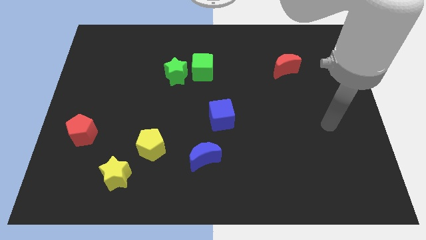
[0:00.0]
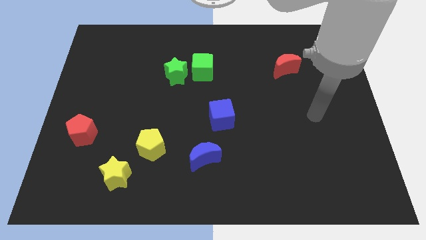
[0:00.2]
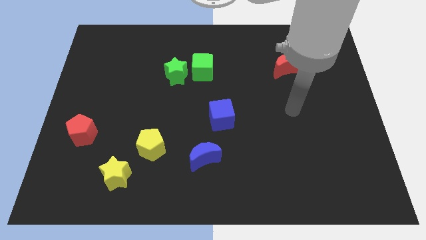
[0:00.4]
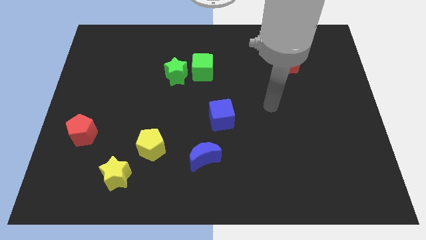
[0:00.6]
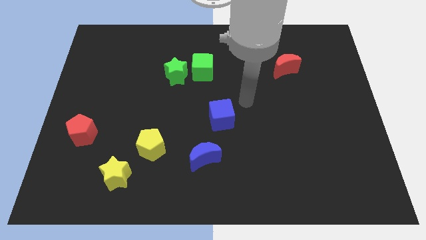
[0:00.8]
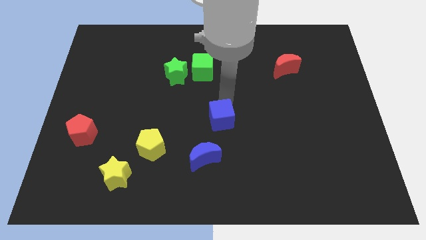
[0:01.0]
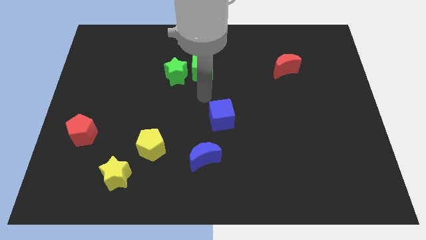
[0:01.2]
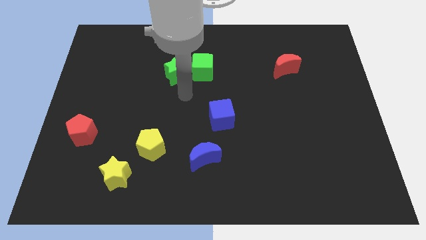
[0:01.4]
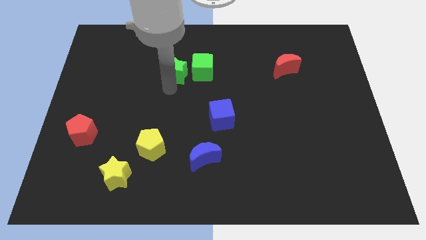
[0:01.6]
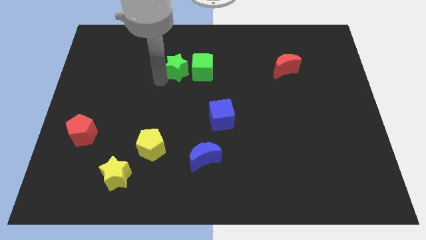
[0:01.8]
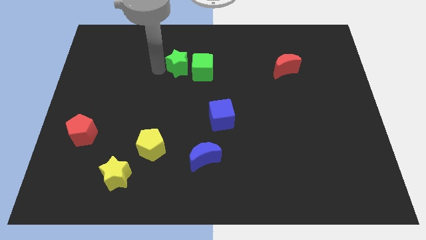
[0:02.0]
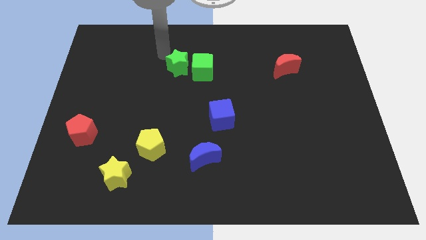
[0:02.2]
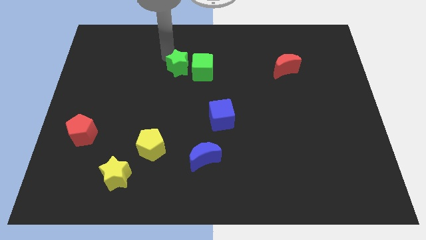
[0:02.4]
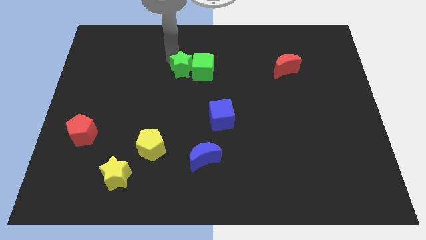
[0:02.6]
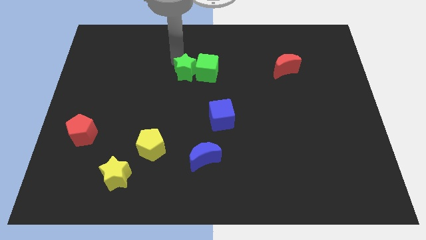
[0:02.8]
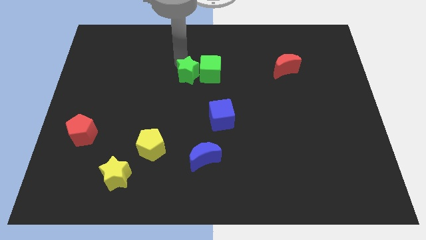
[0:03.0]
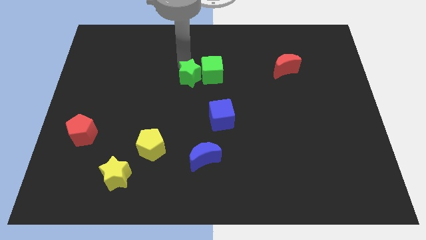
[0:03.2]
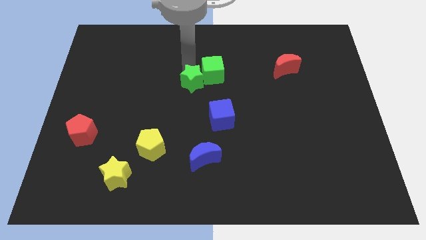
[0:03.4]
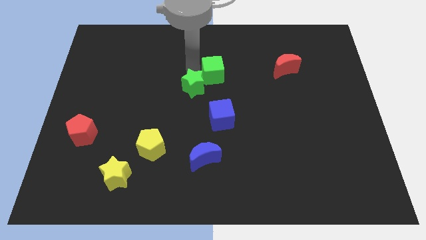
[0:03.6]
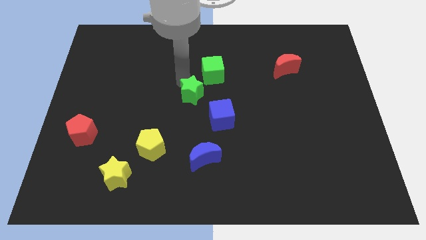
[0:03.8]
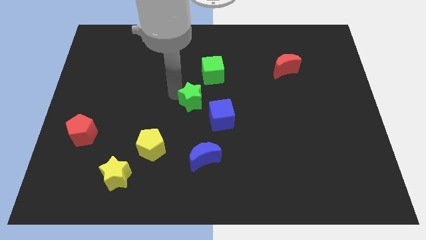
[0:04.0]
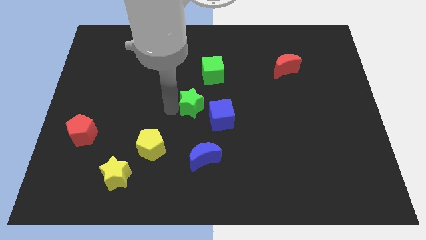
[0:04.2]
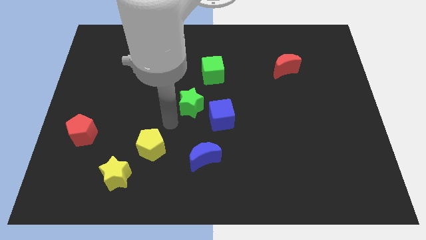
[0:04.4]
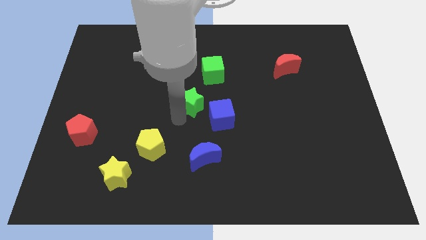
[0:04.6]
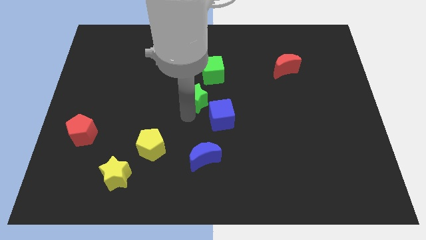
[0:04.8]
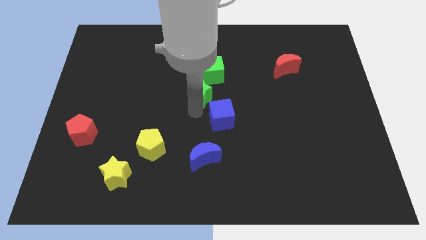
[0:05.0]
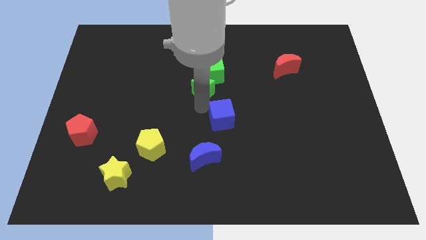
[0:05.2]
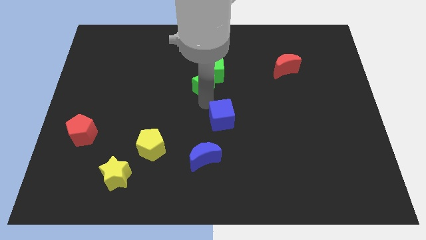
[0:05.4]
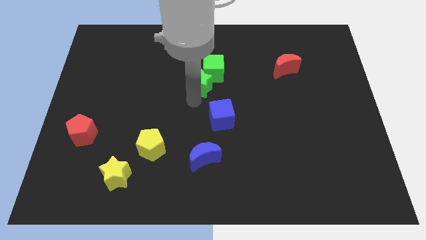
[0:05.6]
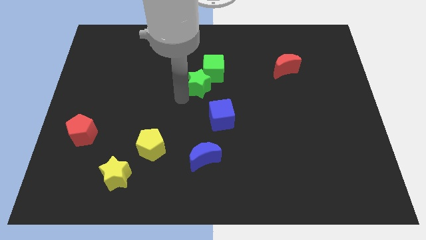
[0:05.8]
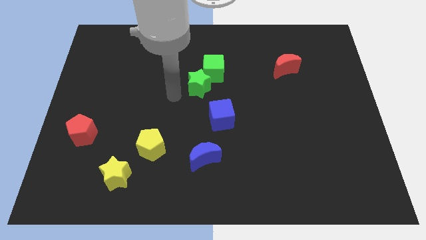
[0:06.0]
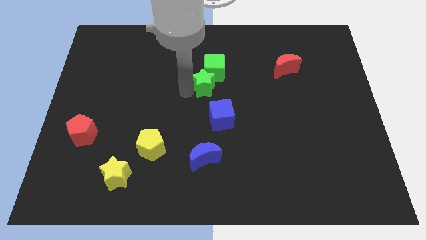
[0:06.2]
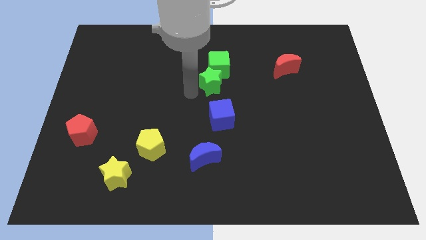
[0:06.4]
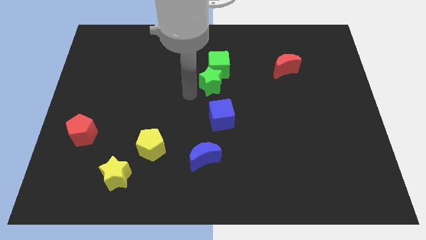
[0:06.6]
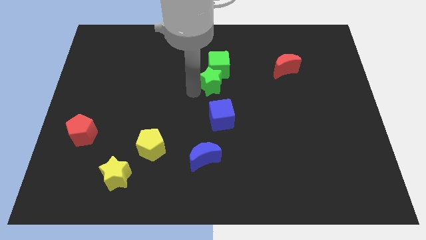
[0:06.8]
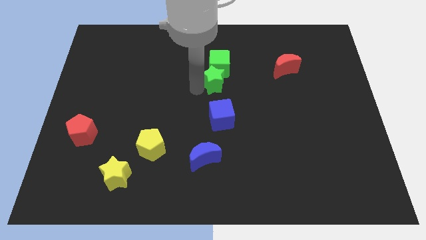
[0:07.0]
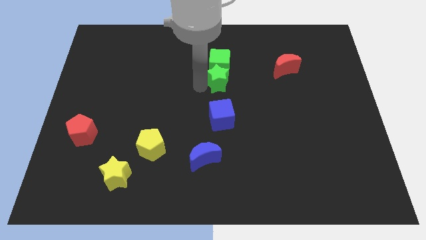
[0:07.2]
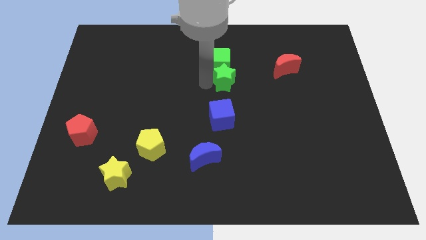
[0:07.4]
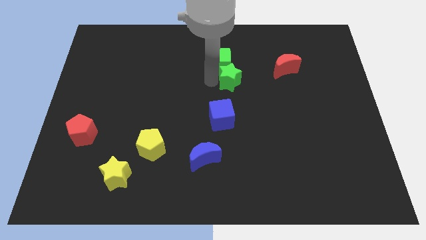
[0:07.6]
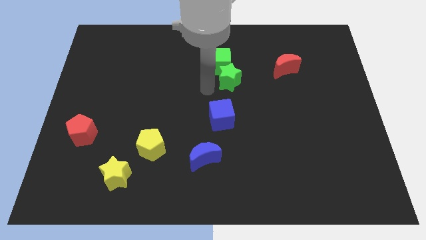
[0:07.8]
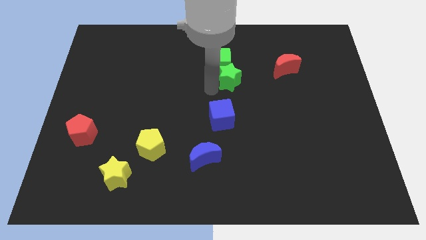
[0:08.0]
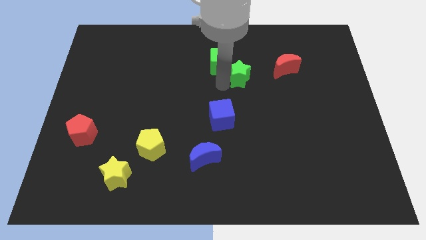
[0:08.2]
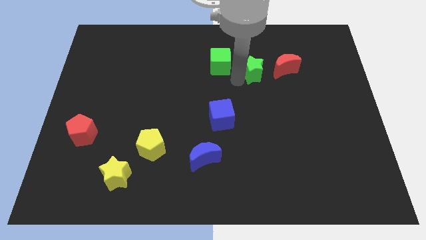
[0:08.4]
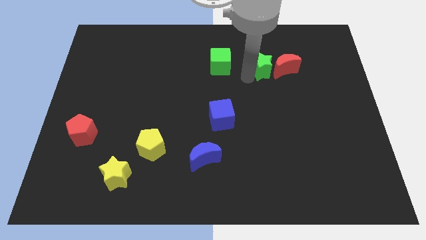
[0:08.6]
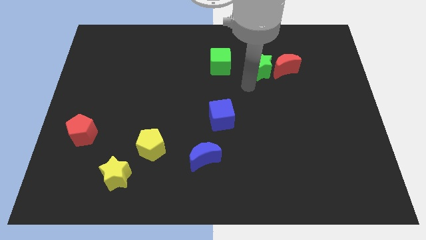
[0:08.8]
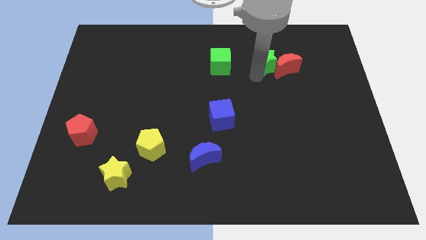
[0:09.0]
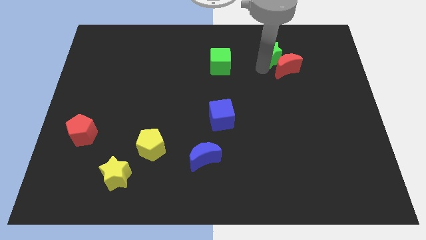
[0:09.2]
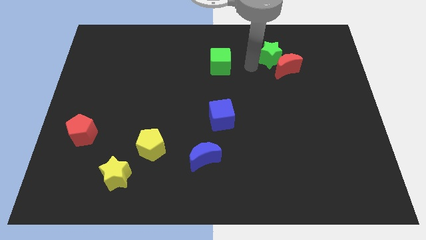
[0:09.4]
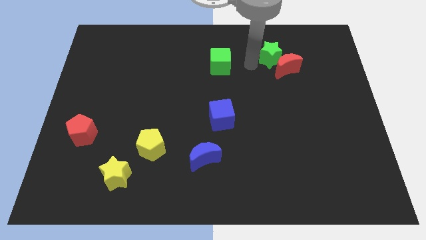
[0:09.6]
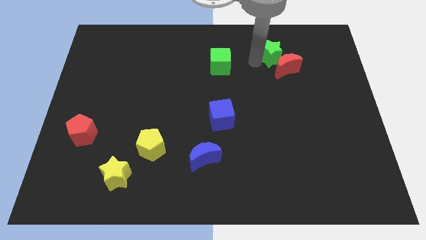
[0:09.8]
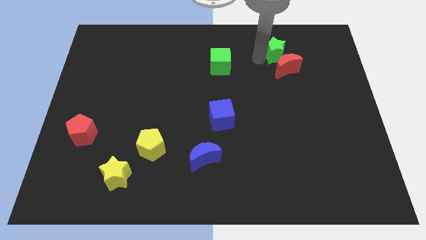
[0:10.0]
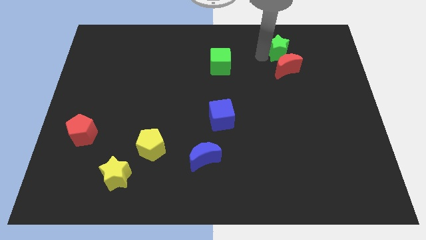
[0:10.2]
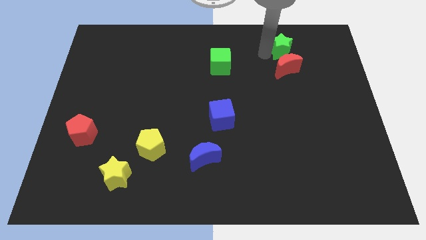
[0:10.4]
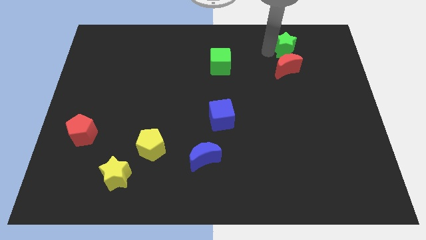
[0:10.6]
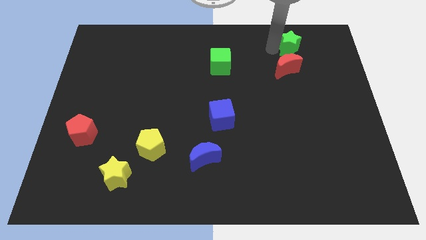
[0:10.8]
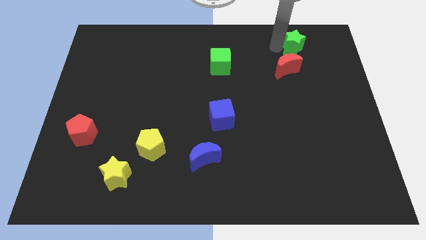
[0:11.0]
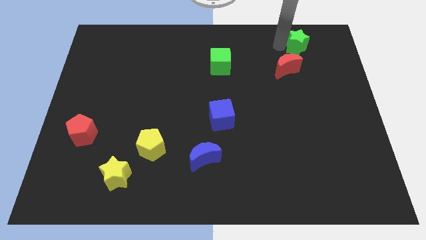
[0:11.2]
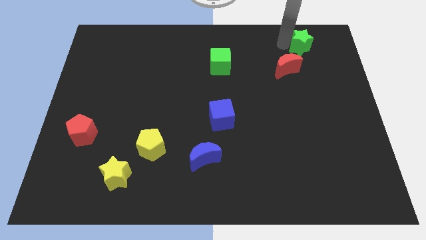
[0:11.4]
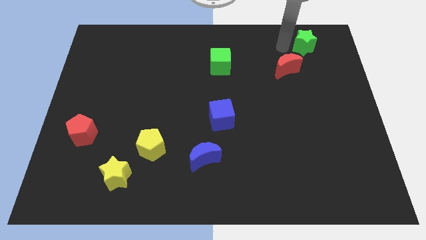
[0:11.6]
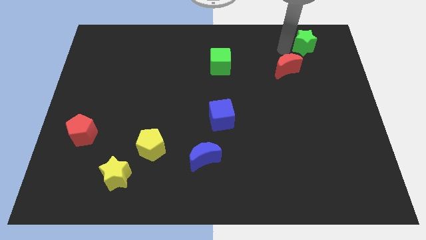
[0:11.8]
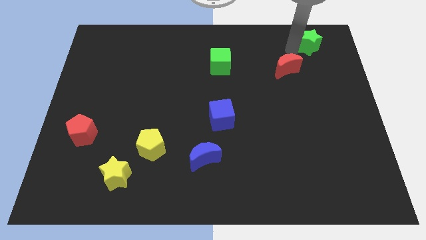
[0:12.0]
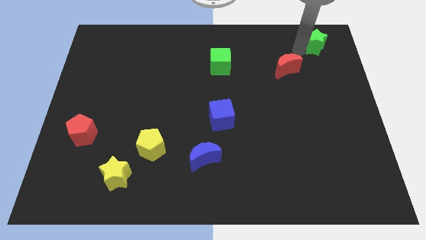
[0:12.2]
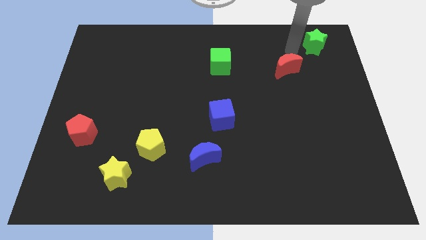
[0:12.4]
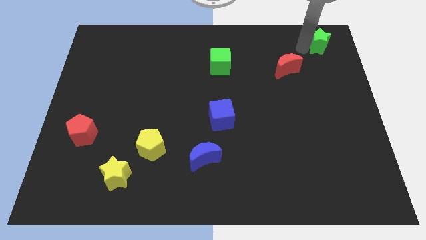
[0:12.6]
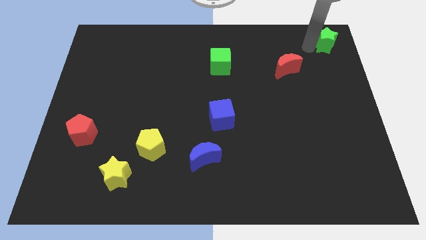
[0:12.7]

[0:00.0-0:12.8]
put the green star to the top right corner

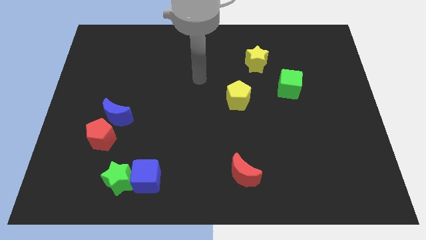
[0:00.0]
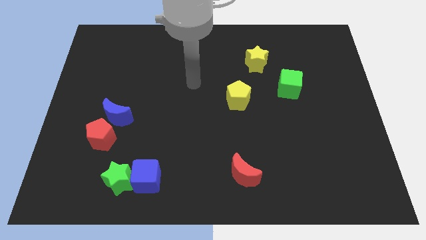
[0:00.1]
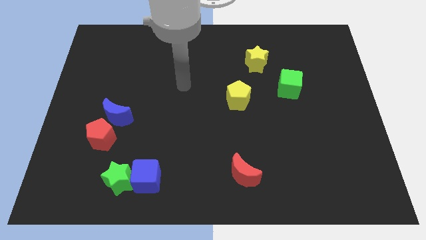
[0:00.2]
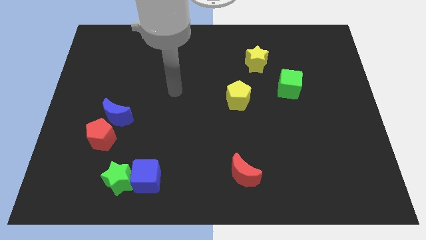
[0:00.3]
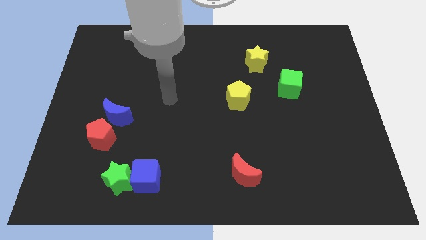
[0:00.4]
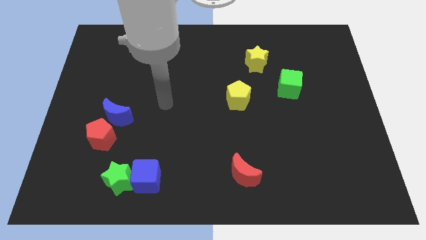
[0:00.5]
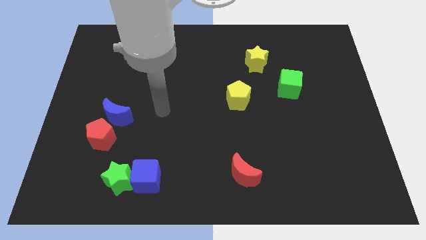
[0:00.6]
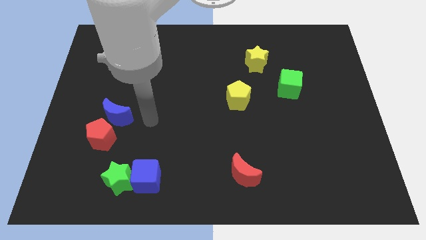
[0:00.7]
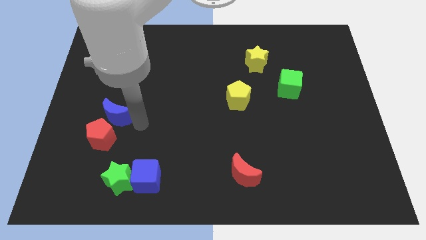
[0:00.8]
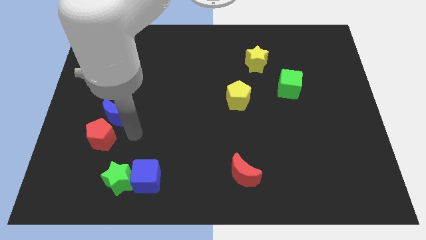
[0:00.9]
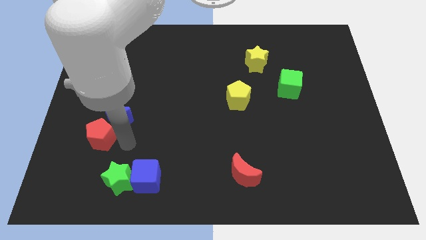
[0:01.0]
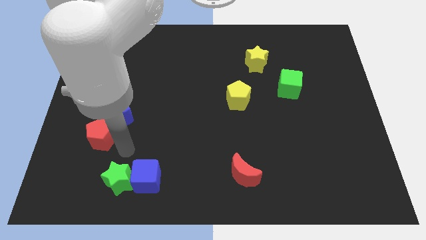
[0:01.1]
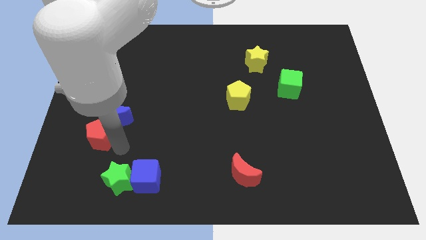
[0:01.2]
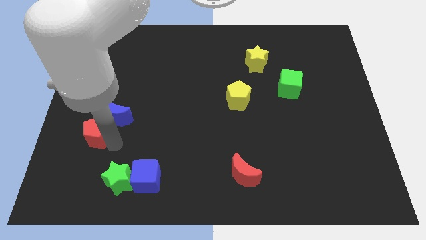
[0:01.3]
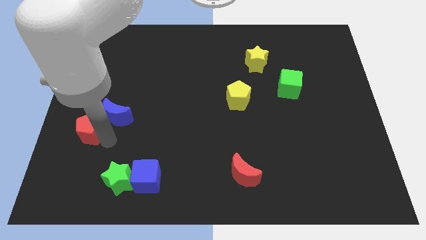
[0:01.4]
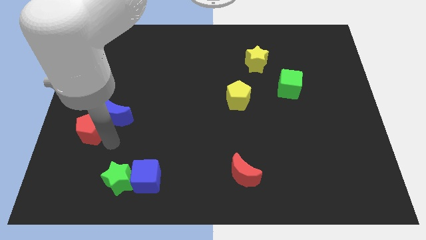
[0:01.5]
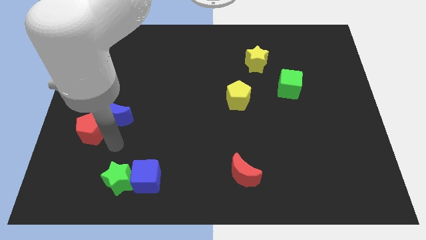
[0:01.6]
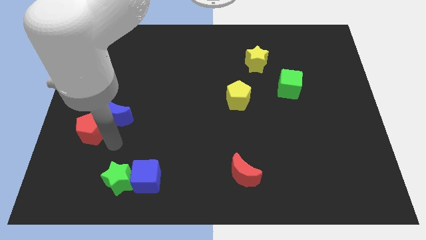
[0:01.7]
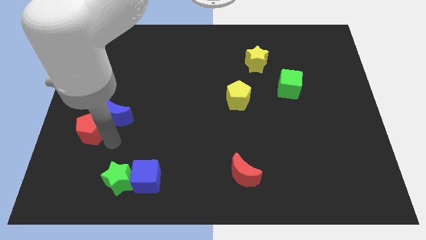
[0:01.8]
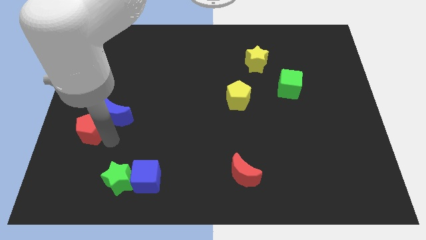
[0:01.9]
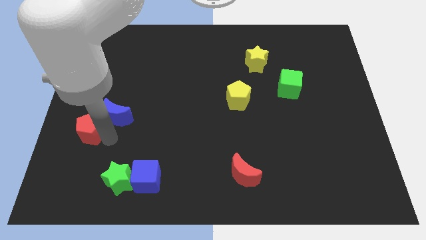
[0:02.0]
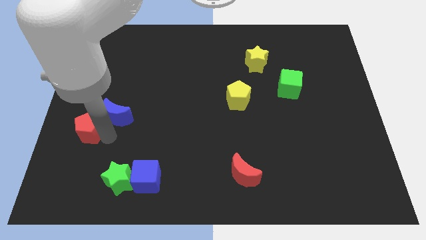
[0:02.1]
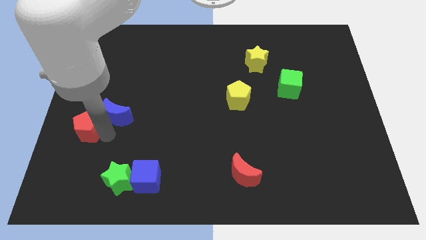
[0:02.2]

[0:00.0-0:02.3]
slide the red pentagon to the left side of the board
